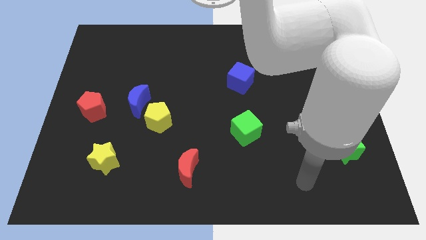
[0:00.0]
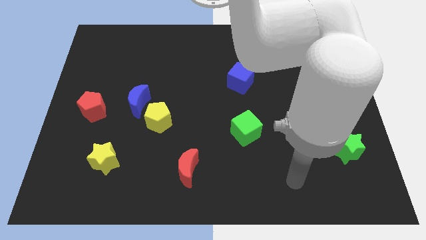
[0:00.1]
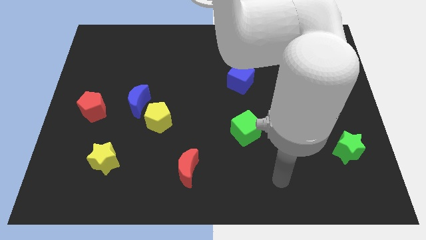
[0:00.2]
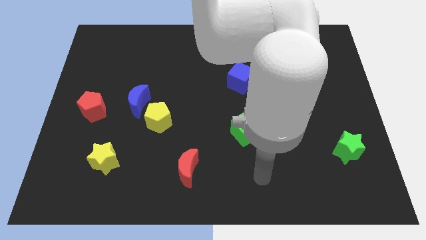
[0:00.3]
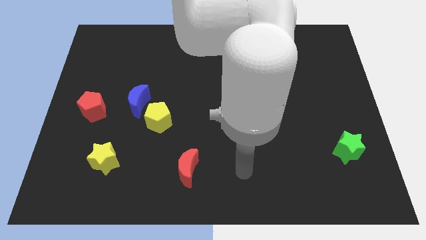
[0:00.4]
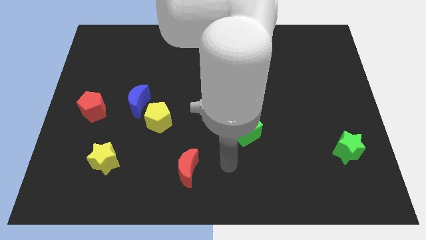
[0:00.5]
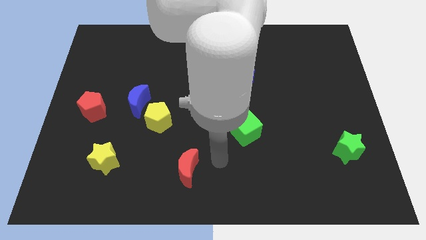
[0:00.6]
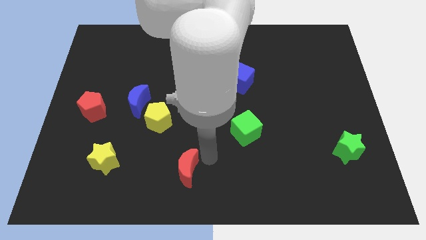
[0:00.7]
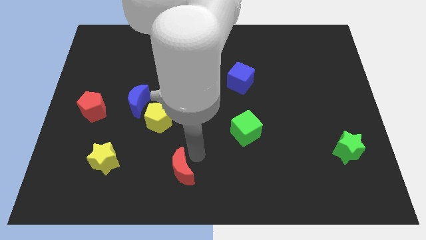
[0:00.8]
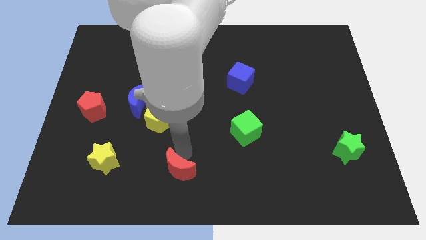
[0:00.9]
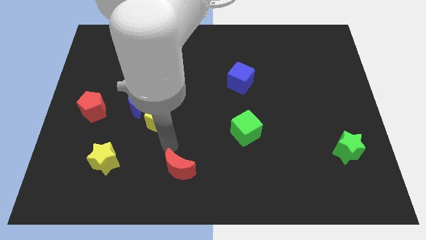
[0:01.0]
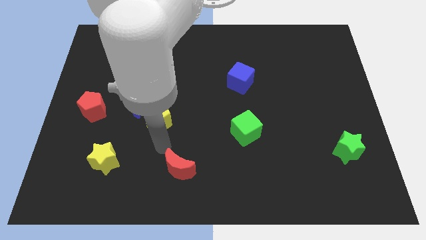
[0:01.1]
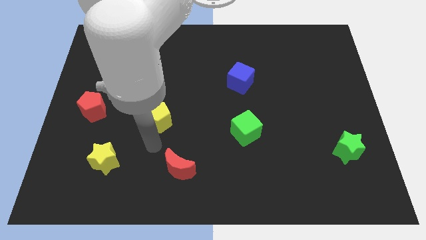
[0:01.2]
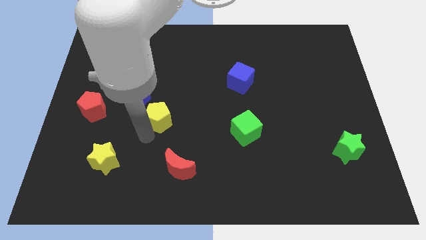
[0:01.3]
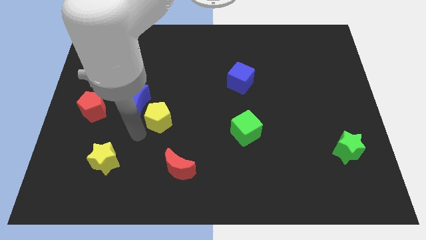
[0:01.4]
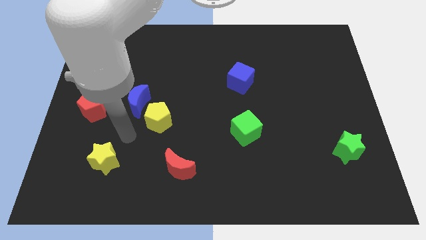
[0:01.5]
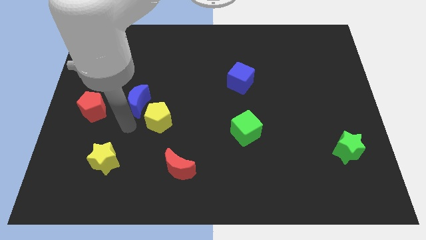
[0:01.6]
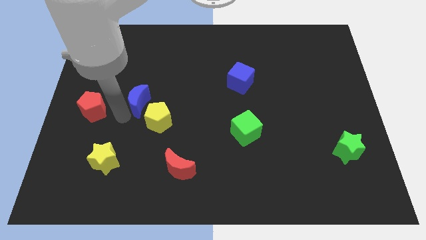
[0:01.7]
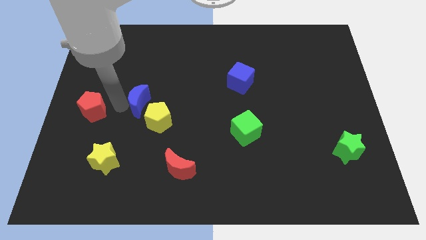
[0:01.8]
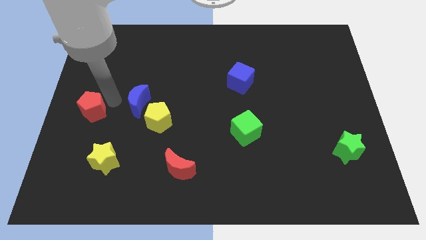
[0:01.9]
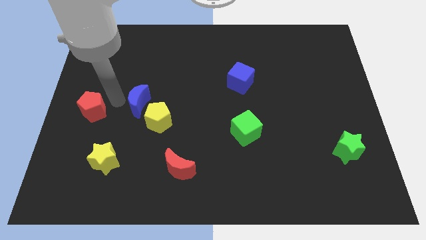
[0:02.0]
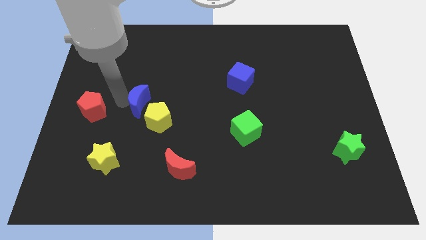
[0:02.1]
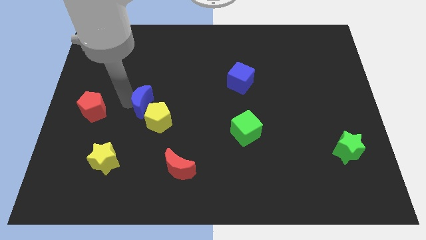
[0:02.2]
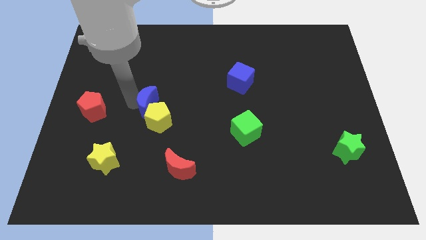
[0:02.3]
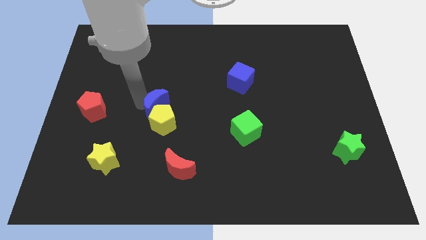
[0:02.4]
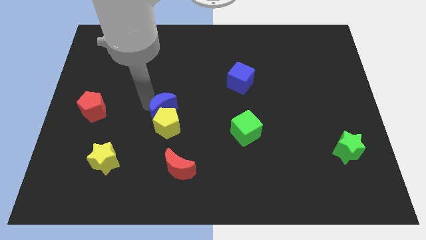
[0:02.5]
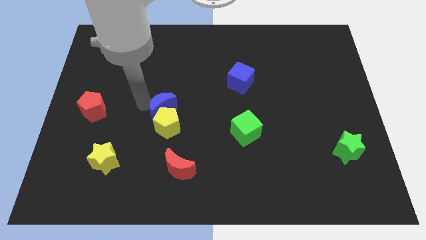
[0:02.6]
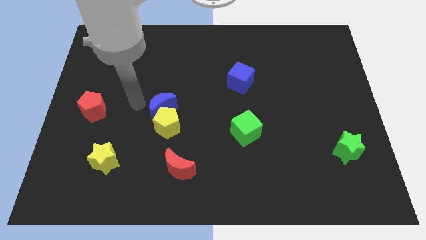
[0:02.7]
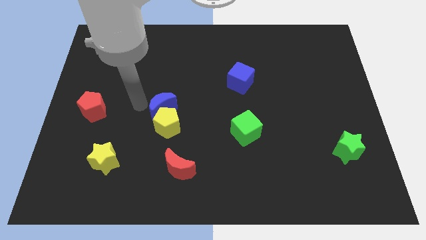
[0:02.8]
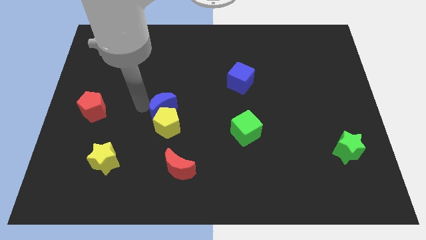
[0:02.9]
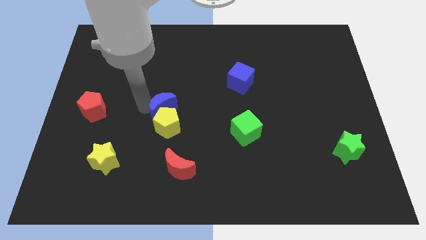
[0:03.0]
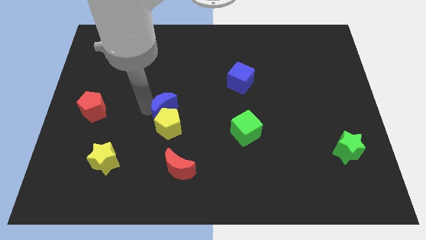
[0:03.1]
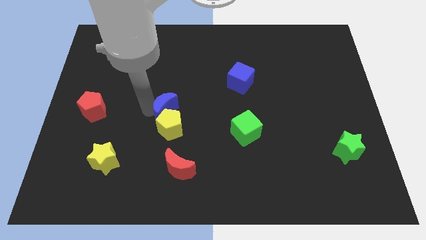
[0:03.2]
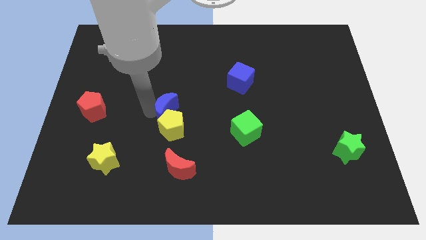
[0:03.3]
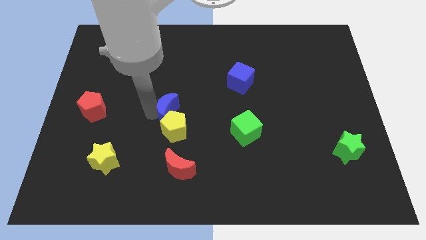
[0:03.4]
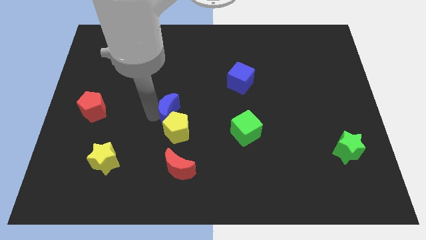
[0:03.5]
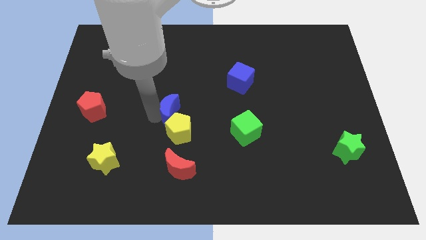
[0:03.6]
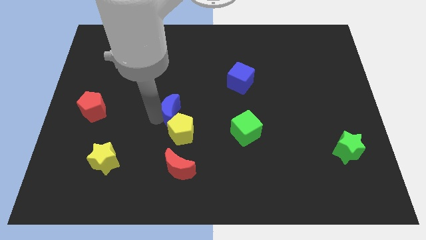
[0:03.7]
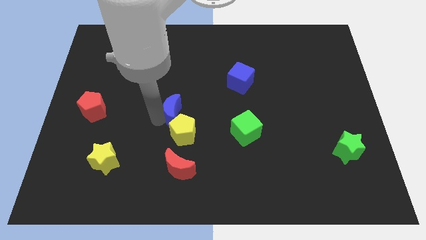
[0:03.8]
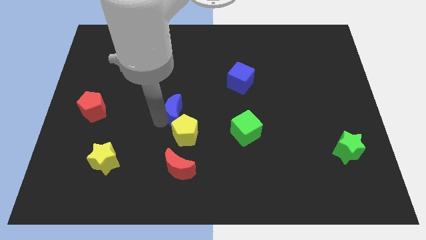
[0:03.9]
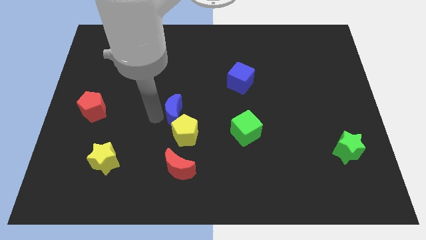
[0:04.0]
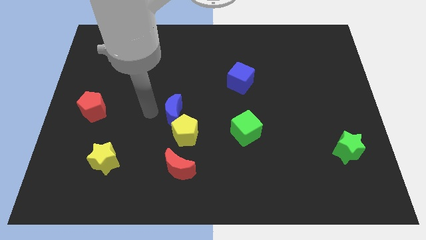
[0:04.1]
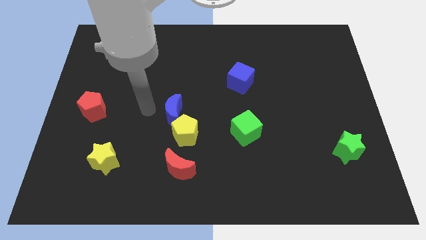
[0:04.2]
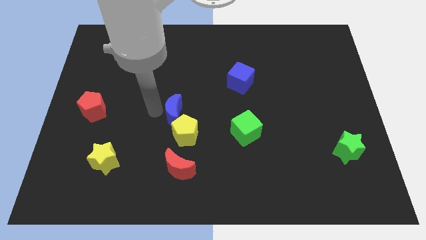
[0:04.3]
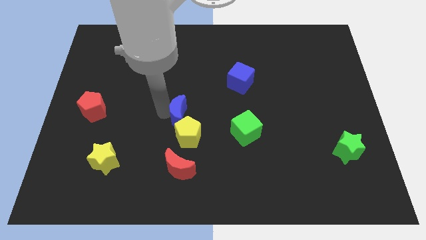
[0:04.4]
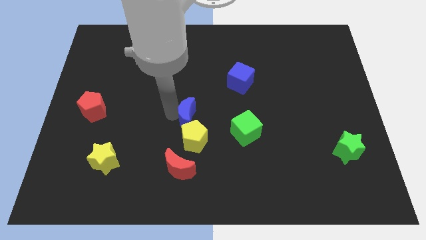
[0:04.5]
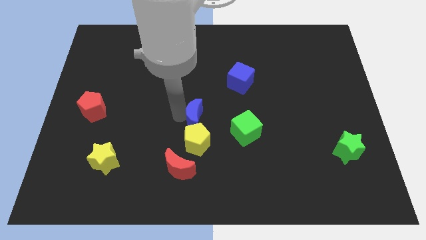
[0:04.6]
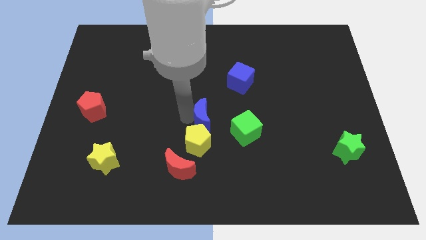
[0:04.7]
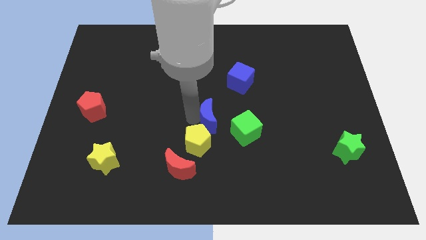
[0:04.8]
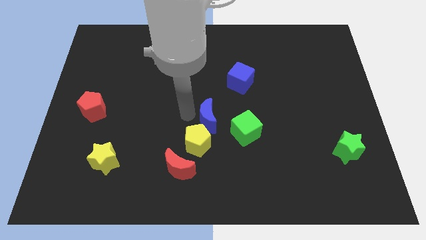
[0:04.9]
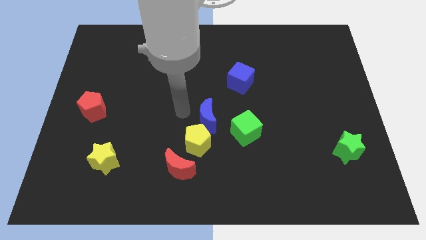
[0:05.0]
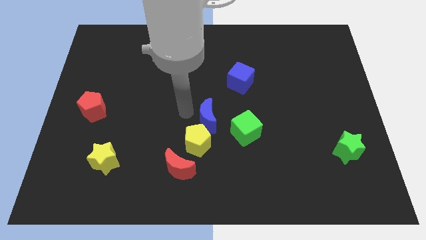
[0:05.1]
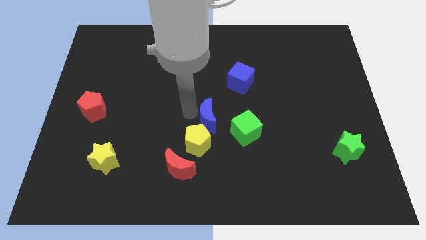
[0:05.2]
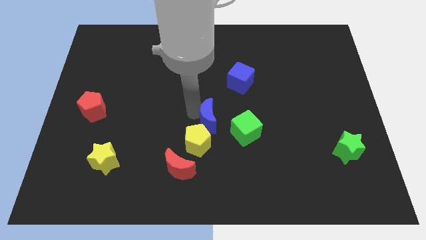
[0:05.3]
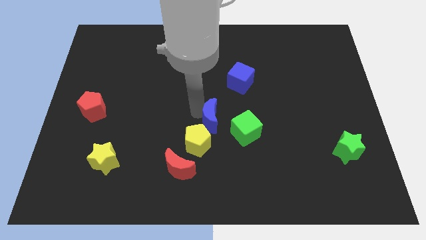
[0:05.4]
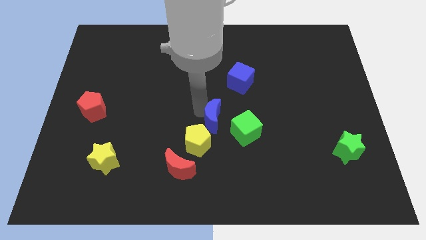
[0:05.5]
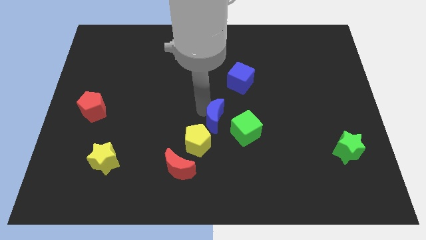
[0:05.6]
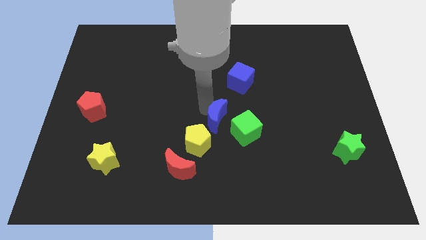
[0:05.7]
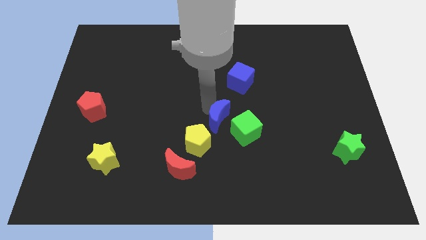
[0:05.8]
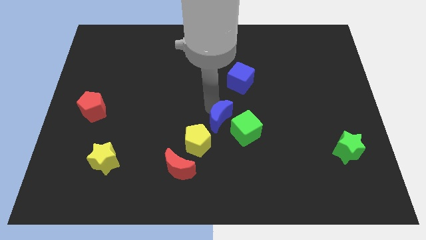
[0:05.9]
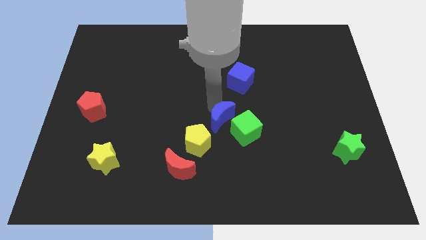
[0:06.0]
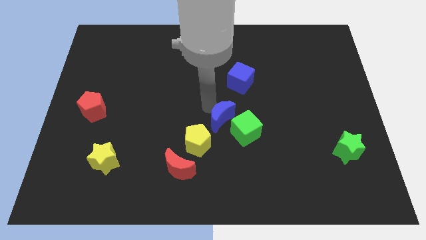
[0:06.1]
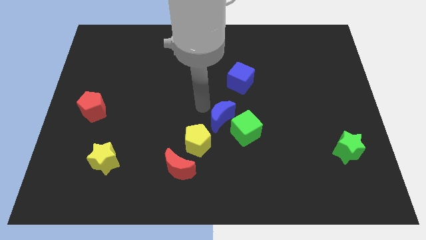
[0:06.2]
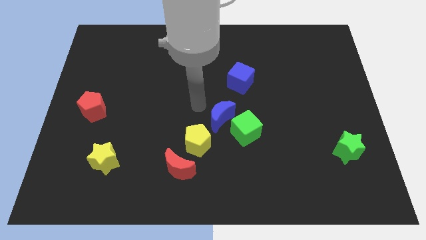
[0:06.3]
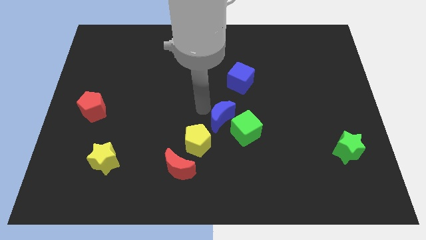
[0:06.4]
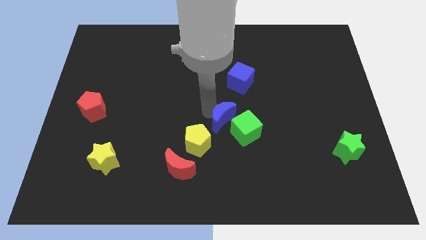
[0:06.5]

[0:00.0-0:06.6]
slide the blue moon to the green cube
